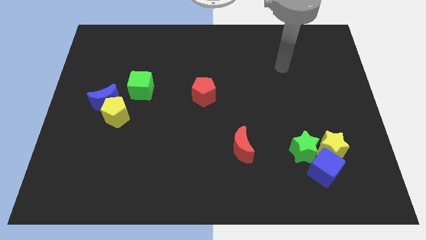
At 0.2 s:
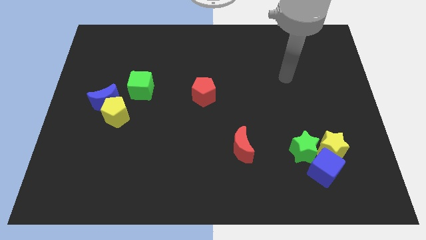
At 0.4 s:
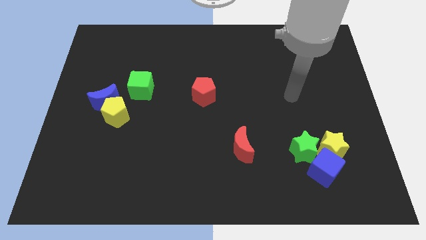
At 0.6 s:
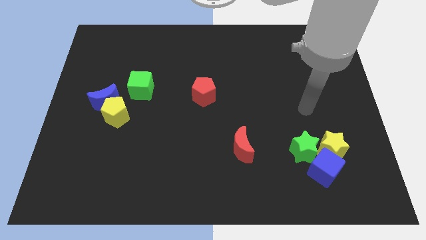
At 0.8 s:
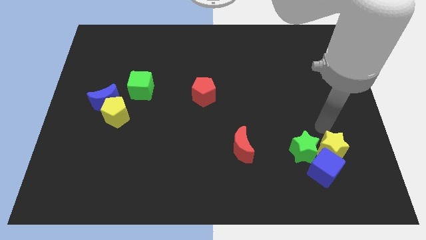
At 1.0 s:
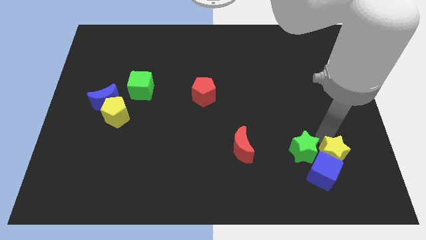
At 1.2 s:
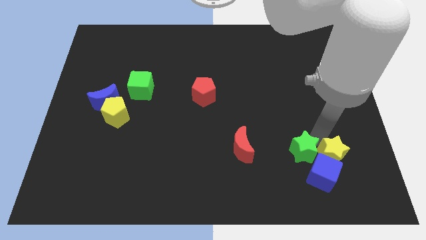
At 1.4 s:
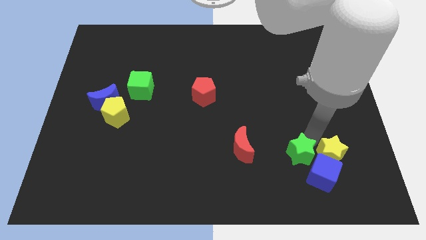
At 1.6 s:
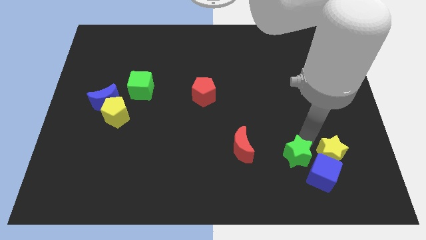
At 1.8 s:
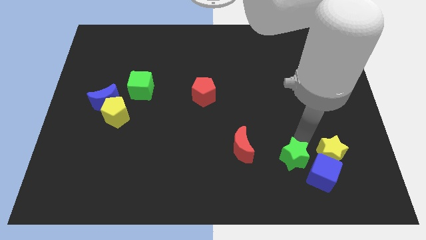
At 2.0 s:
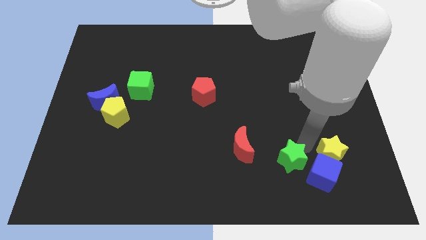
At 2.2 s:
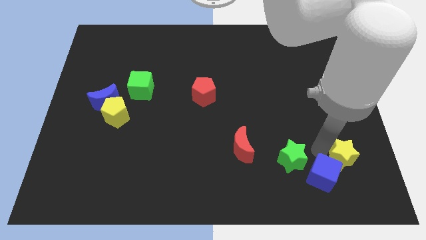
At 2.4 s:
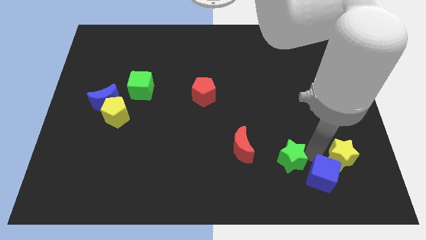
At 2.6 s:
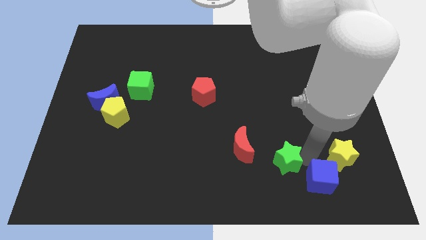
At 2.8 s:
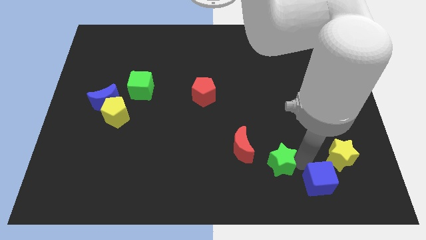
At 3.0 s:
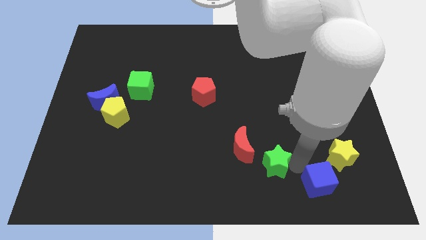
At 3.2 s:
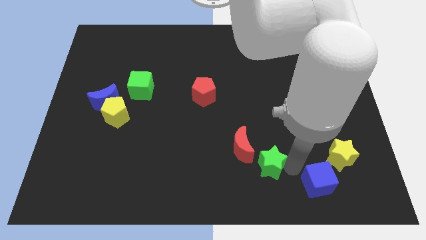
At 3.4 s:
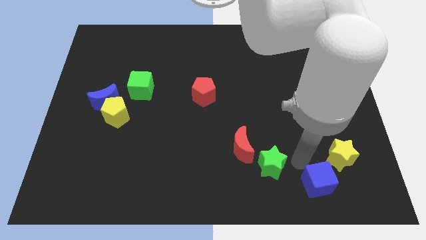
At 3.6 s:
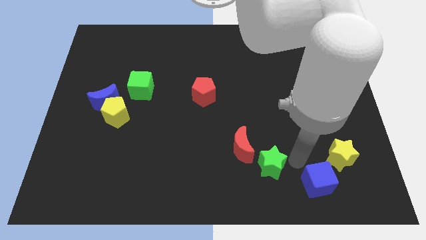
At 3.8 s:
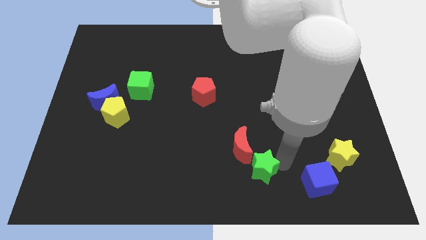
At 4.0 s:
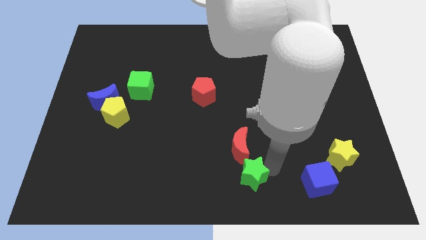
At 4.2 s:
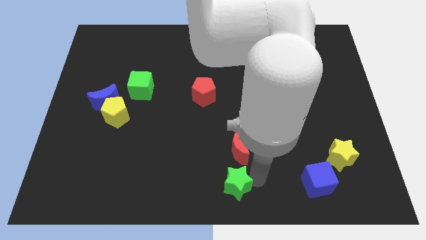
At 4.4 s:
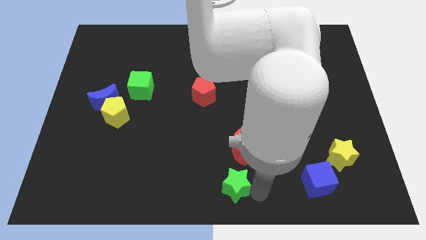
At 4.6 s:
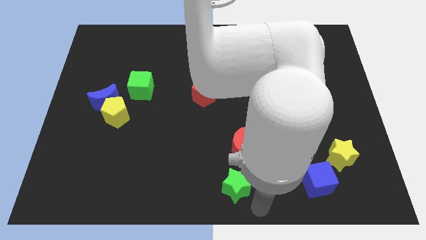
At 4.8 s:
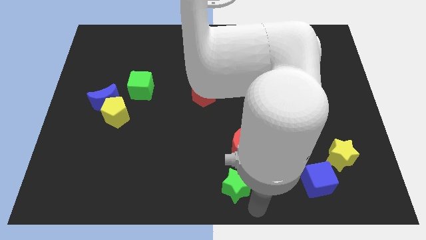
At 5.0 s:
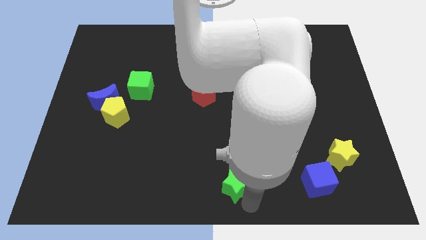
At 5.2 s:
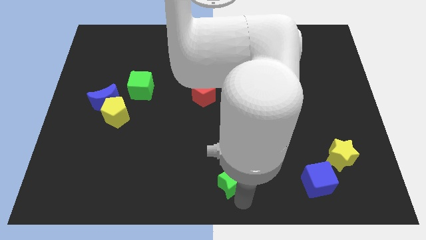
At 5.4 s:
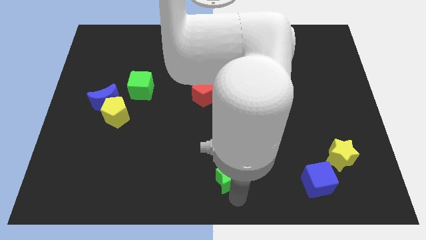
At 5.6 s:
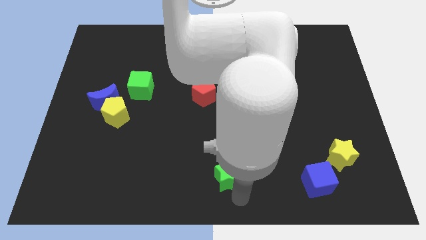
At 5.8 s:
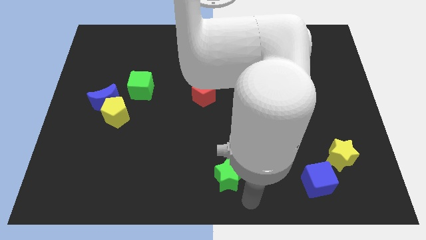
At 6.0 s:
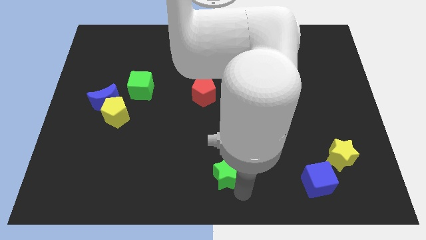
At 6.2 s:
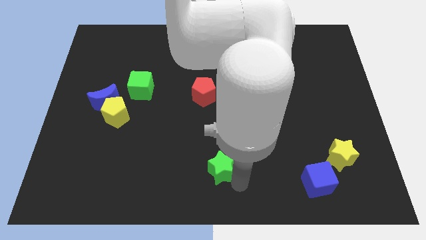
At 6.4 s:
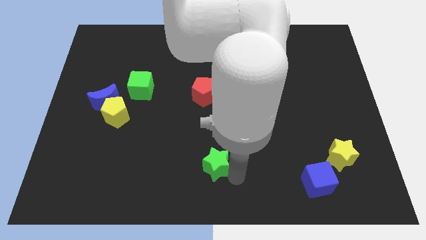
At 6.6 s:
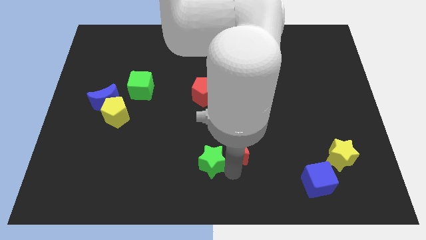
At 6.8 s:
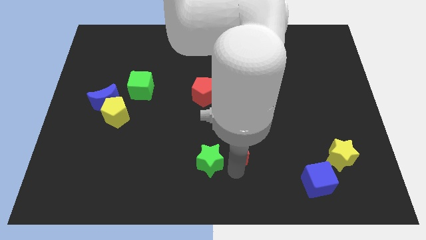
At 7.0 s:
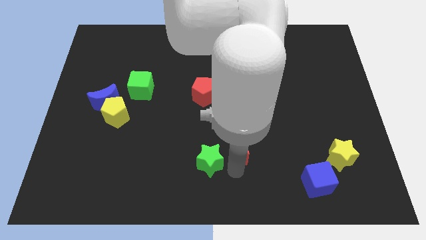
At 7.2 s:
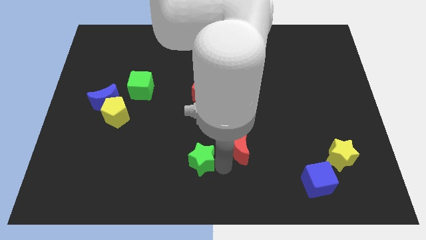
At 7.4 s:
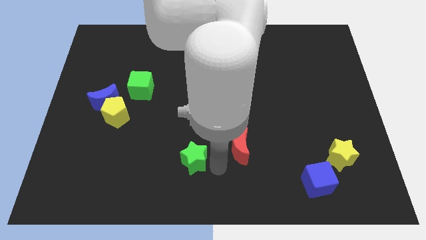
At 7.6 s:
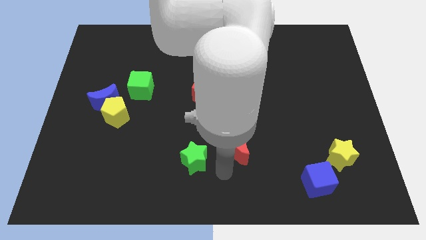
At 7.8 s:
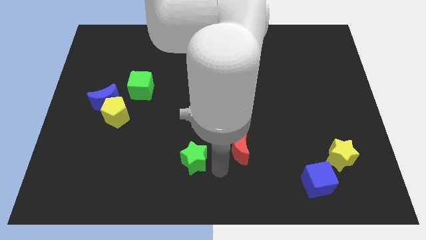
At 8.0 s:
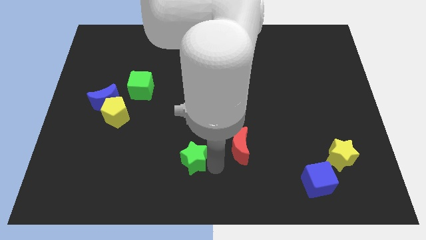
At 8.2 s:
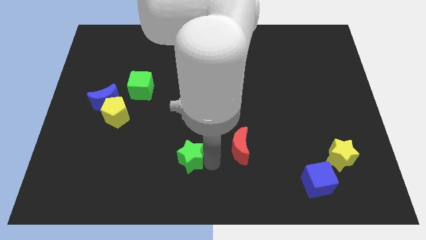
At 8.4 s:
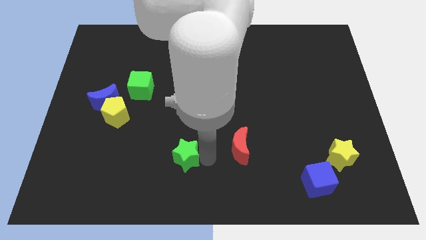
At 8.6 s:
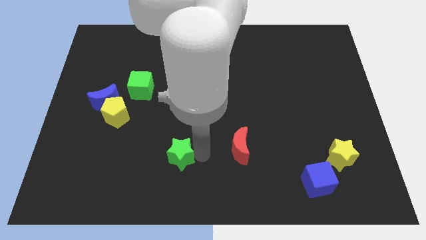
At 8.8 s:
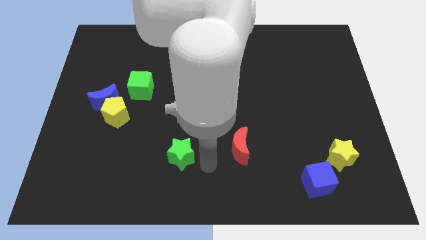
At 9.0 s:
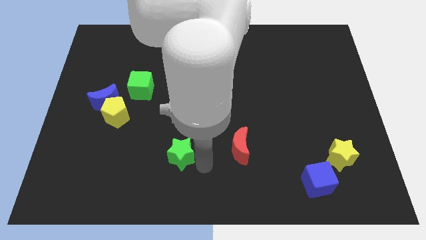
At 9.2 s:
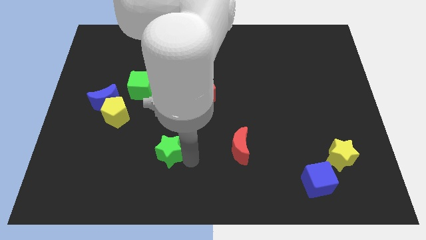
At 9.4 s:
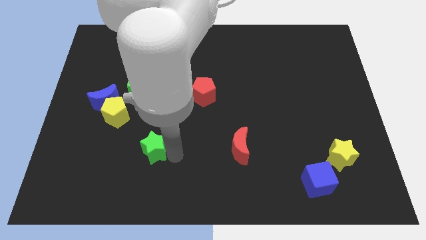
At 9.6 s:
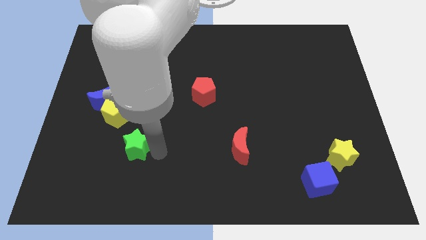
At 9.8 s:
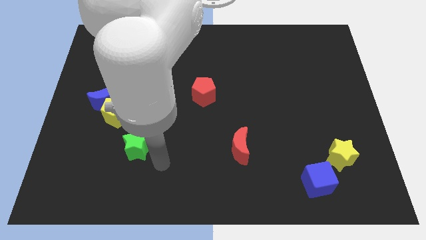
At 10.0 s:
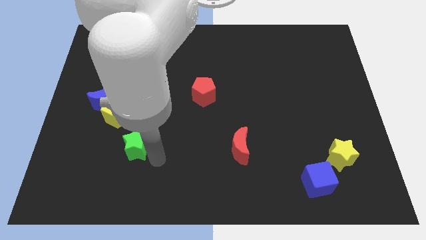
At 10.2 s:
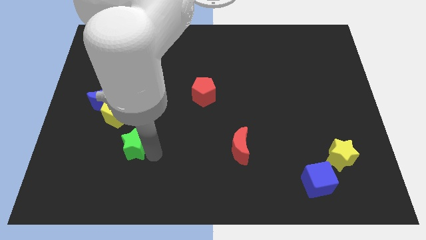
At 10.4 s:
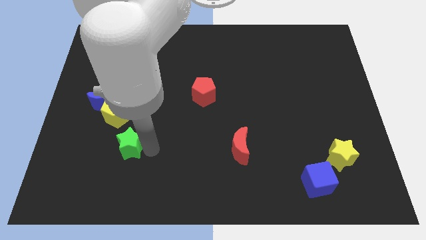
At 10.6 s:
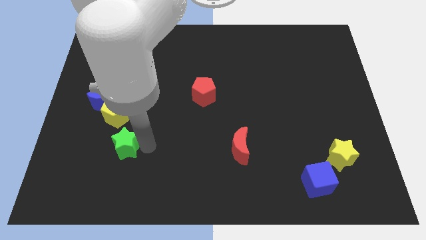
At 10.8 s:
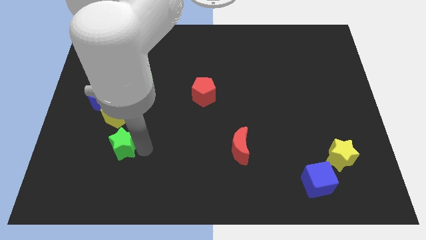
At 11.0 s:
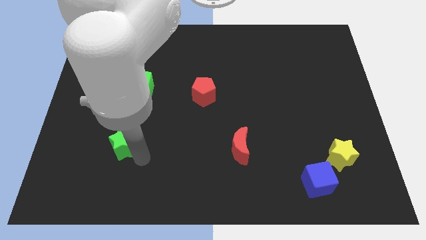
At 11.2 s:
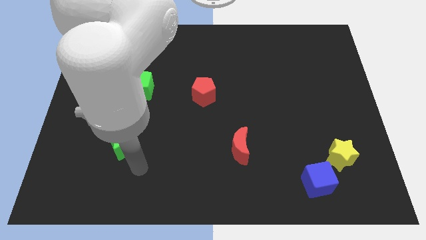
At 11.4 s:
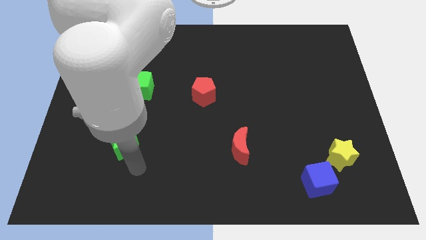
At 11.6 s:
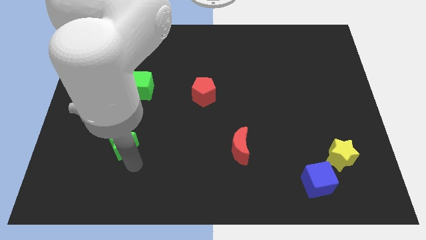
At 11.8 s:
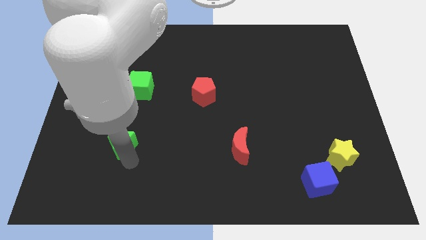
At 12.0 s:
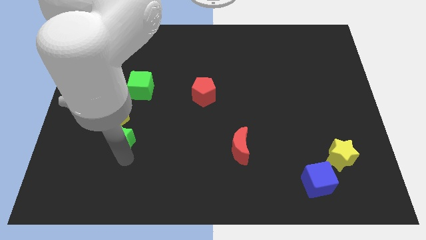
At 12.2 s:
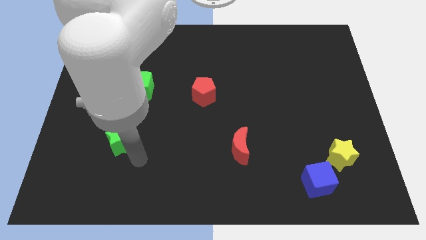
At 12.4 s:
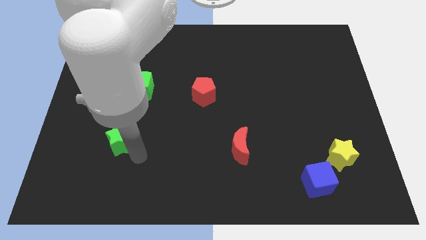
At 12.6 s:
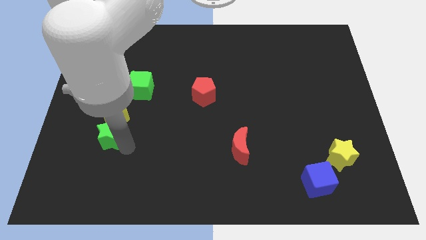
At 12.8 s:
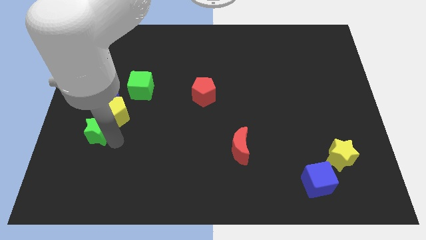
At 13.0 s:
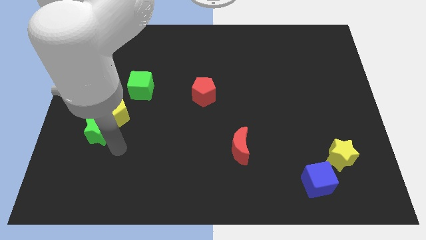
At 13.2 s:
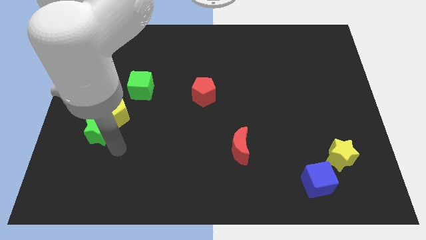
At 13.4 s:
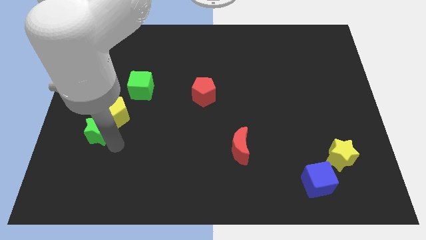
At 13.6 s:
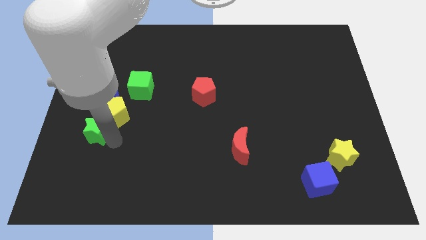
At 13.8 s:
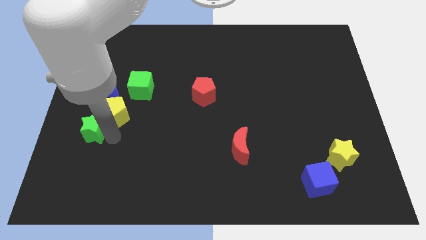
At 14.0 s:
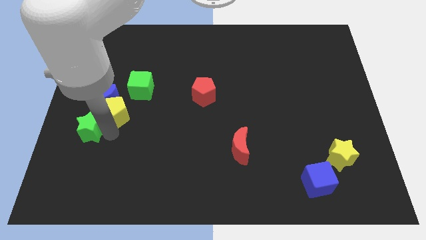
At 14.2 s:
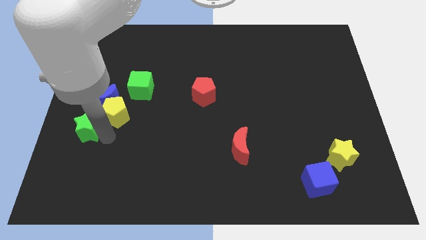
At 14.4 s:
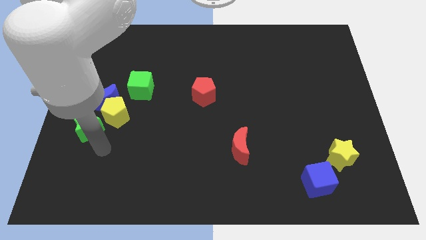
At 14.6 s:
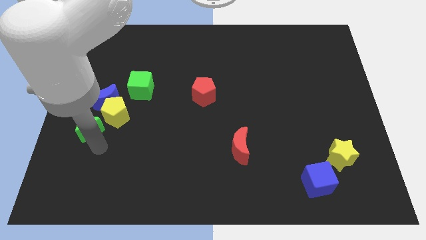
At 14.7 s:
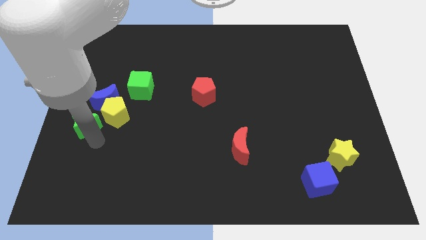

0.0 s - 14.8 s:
slide the green star to the center left

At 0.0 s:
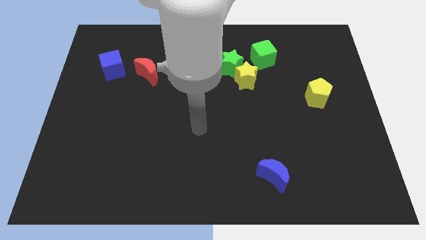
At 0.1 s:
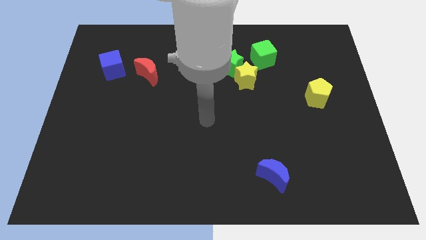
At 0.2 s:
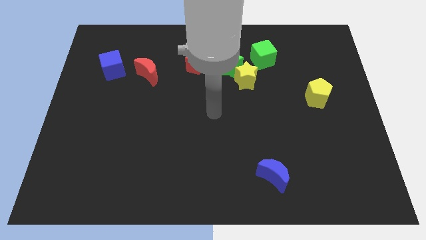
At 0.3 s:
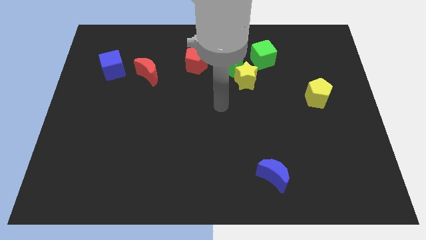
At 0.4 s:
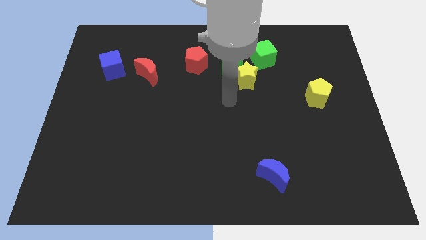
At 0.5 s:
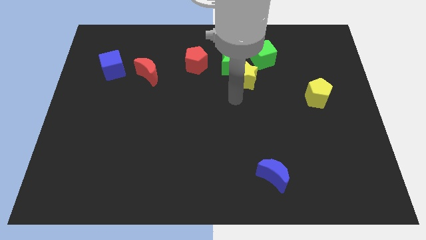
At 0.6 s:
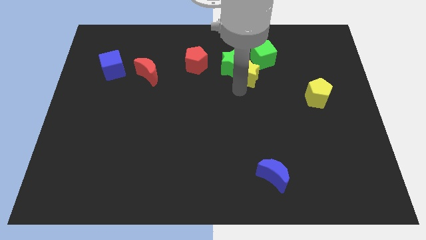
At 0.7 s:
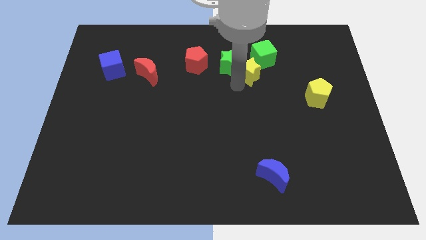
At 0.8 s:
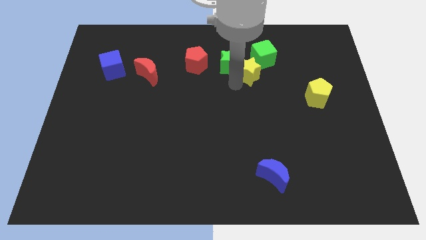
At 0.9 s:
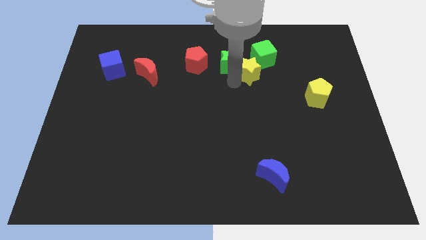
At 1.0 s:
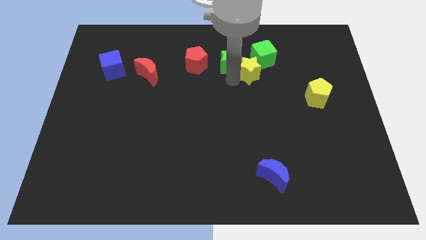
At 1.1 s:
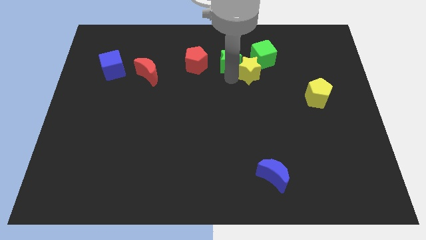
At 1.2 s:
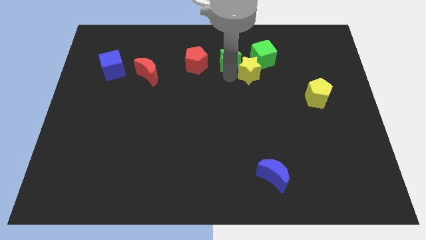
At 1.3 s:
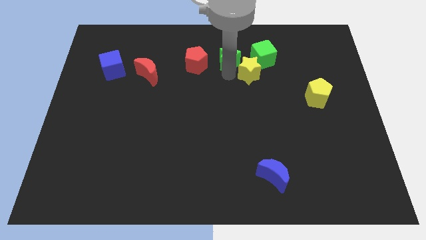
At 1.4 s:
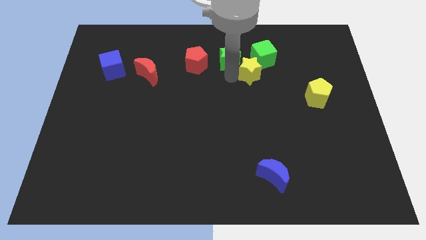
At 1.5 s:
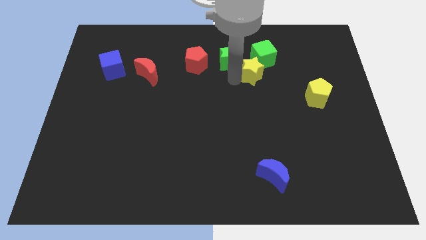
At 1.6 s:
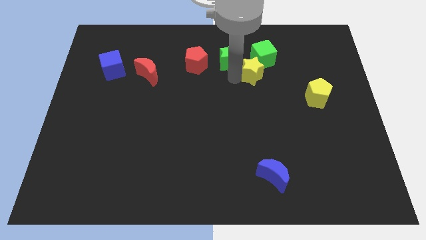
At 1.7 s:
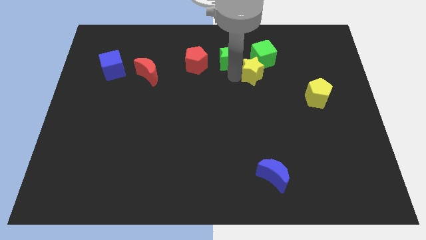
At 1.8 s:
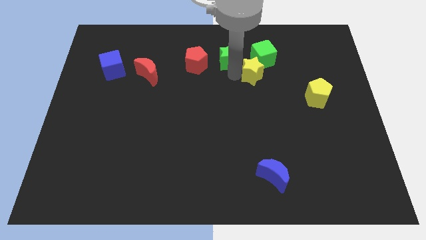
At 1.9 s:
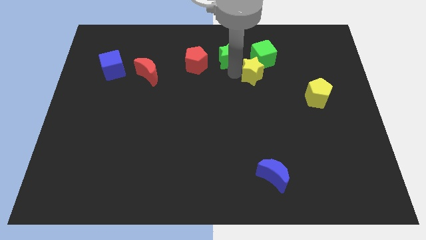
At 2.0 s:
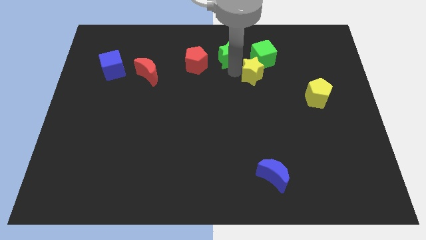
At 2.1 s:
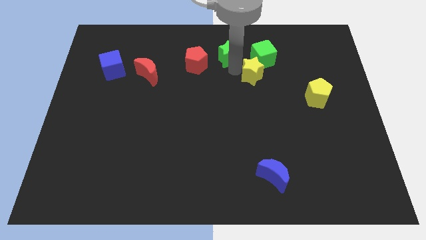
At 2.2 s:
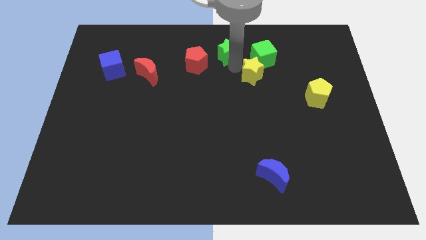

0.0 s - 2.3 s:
slide the green star to the top
